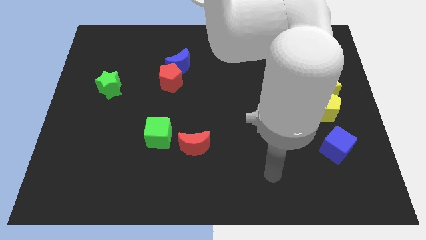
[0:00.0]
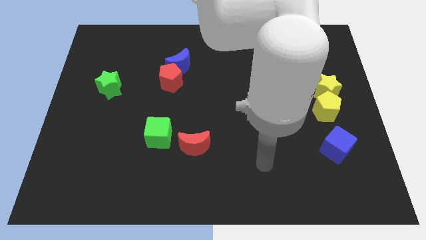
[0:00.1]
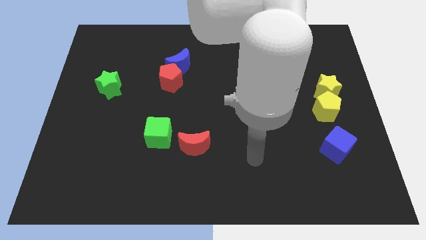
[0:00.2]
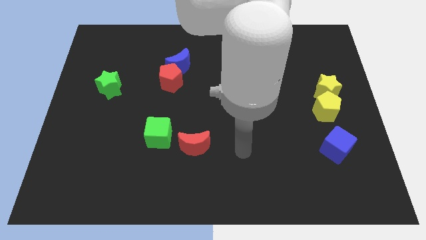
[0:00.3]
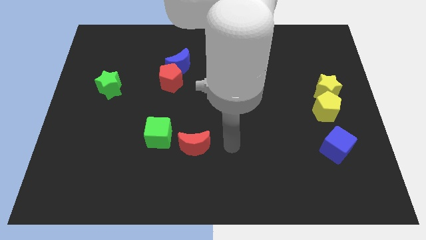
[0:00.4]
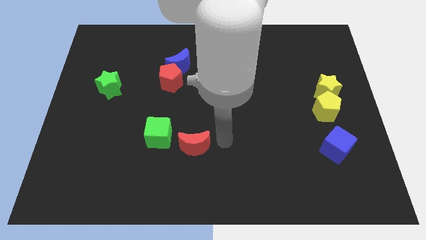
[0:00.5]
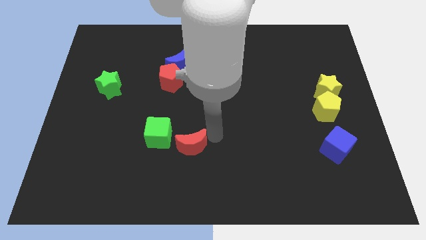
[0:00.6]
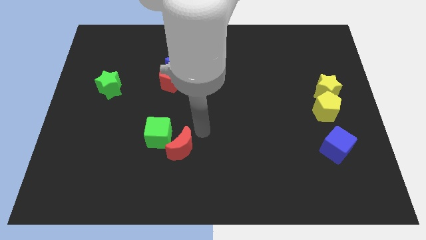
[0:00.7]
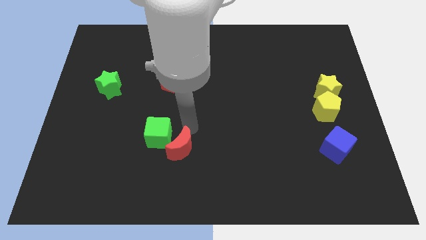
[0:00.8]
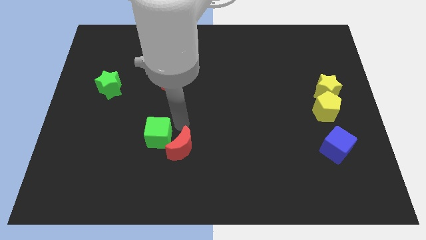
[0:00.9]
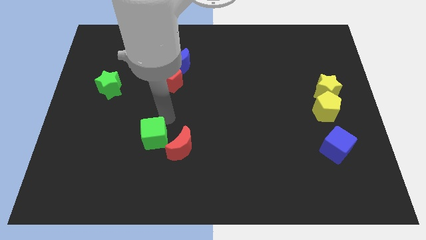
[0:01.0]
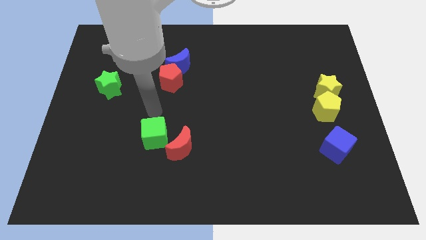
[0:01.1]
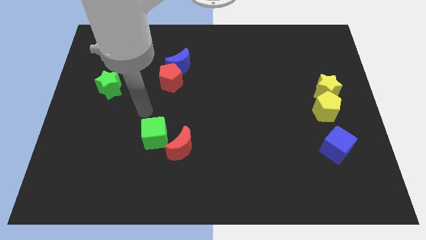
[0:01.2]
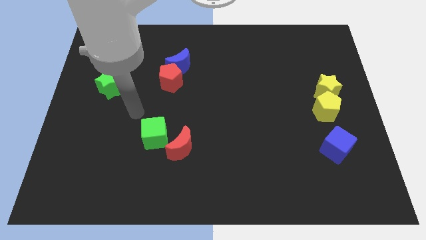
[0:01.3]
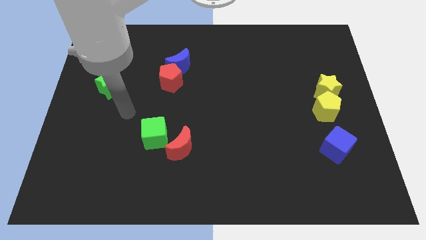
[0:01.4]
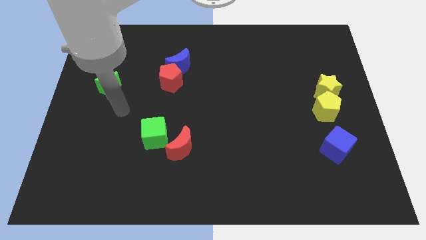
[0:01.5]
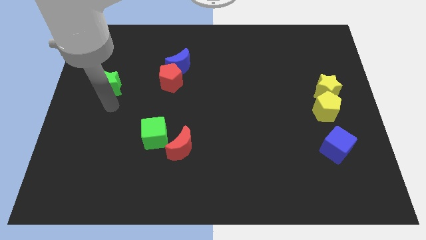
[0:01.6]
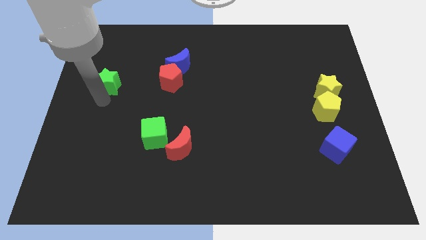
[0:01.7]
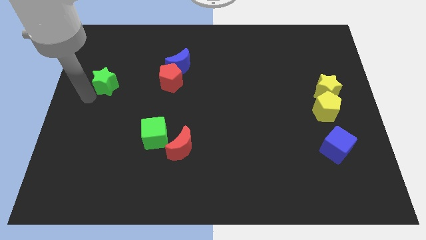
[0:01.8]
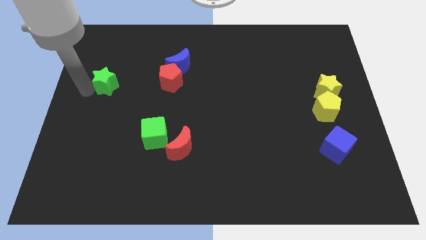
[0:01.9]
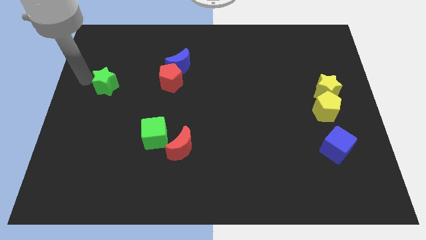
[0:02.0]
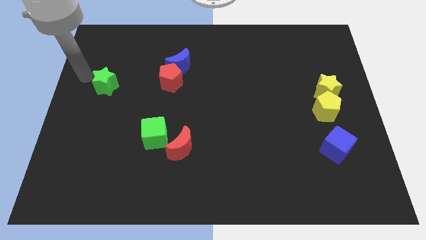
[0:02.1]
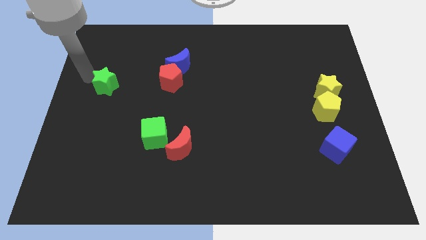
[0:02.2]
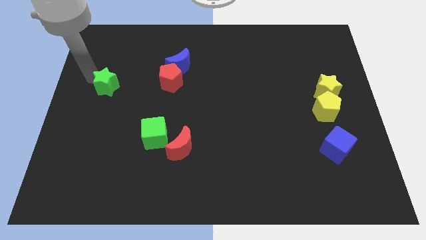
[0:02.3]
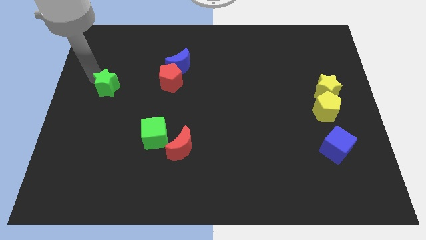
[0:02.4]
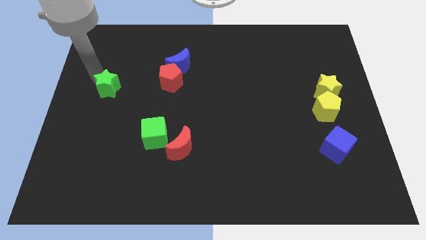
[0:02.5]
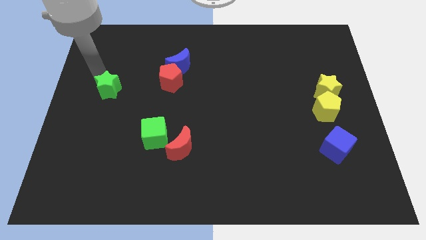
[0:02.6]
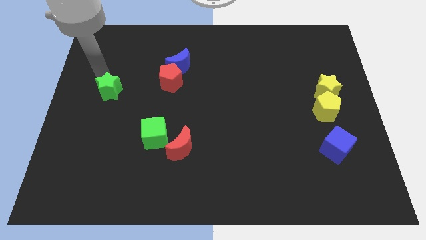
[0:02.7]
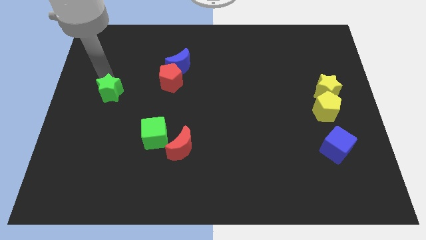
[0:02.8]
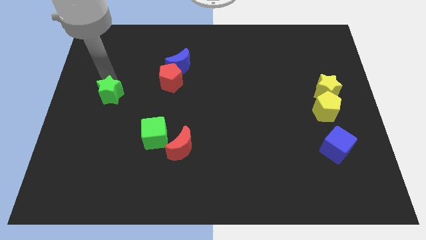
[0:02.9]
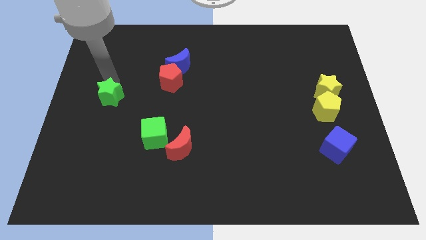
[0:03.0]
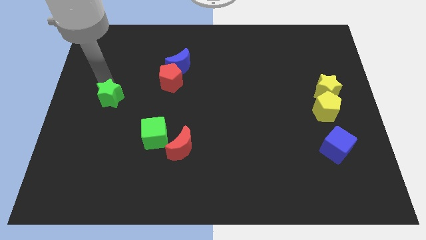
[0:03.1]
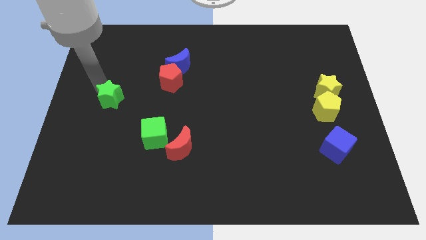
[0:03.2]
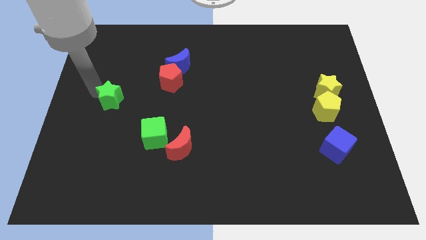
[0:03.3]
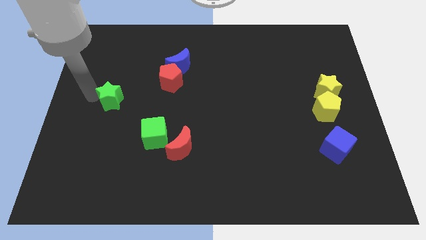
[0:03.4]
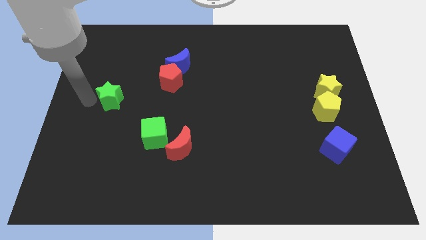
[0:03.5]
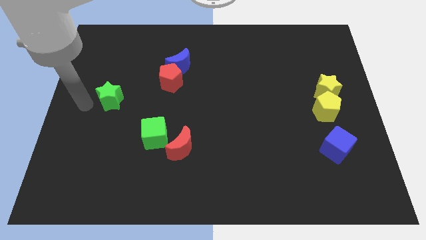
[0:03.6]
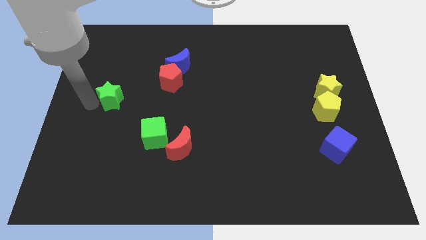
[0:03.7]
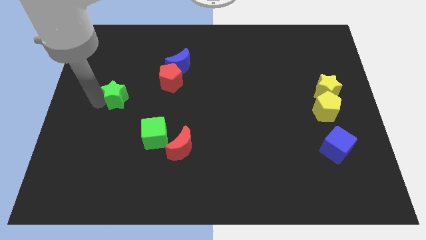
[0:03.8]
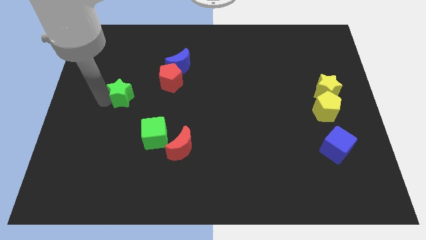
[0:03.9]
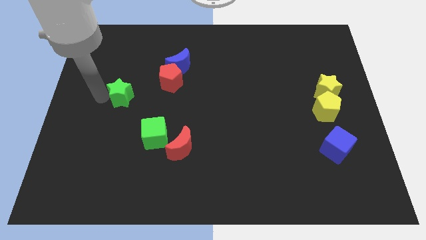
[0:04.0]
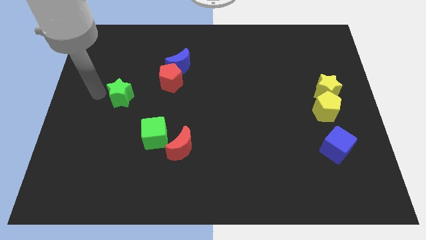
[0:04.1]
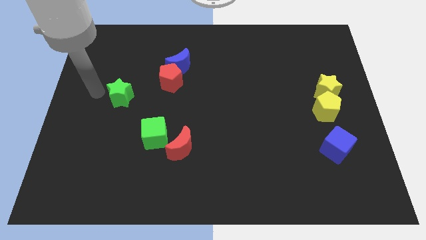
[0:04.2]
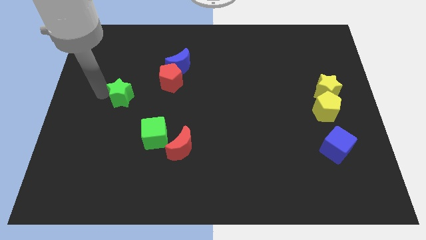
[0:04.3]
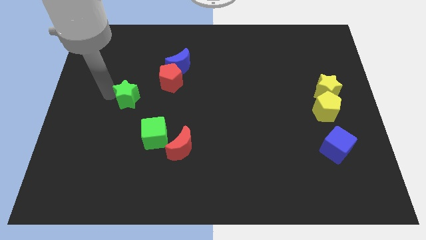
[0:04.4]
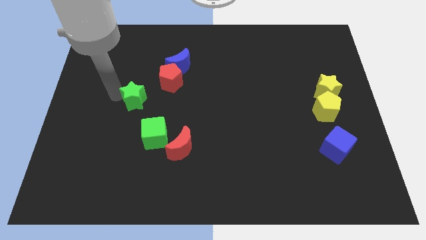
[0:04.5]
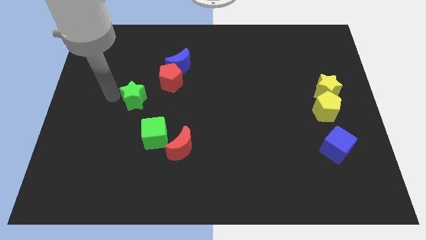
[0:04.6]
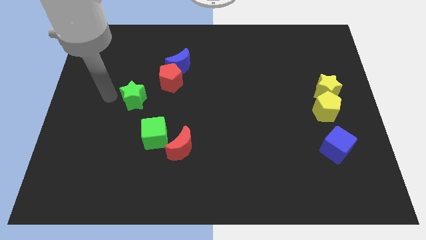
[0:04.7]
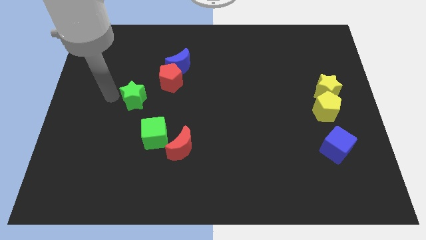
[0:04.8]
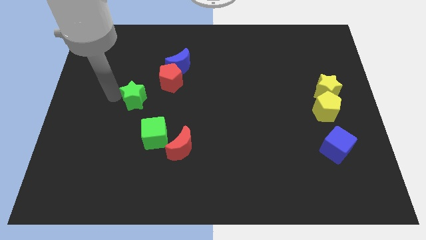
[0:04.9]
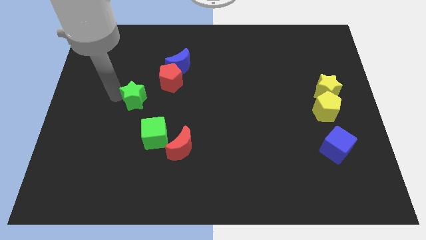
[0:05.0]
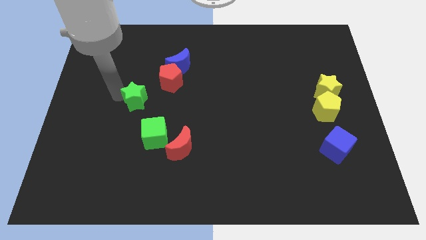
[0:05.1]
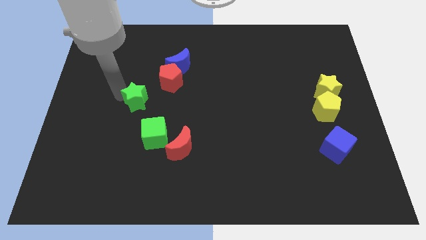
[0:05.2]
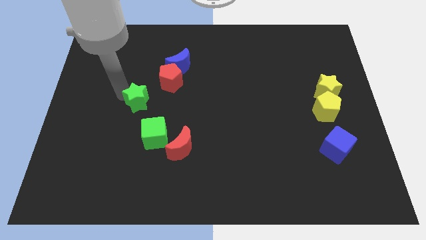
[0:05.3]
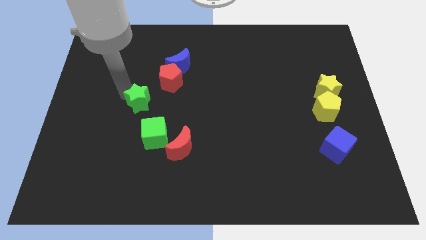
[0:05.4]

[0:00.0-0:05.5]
push the green star a little right

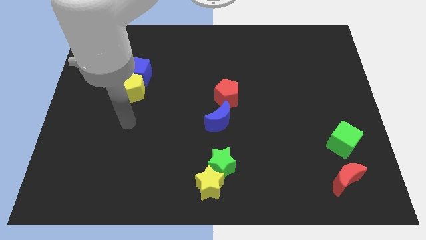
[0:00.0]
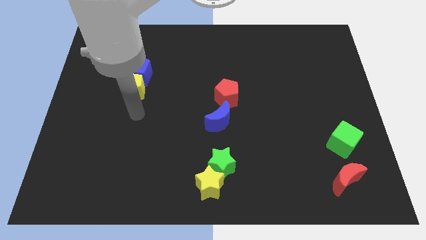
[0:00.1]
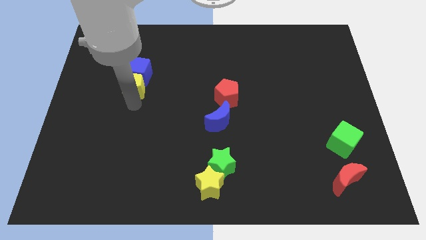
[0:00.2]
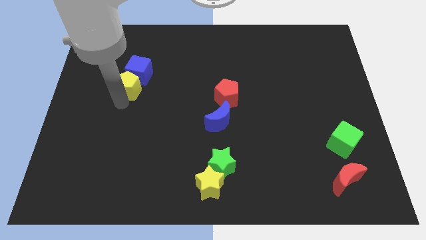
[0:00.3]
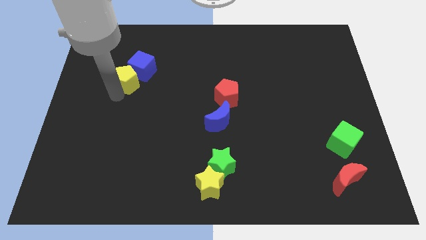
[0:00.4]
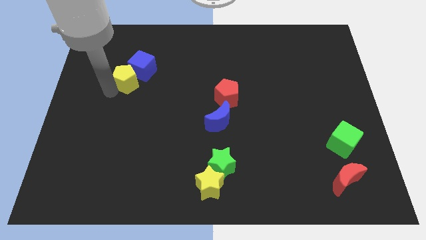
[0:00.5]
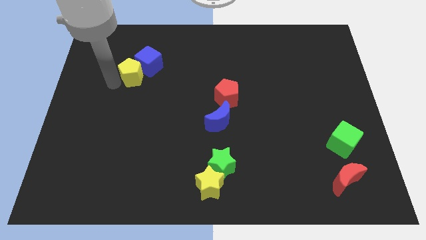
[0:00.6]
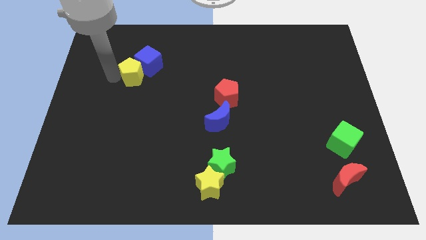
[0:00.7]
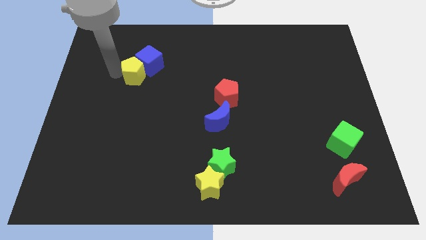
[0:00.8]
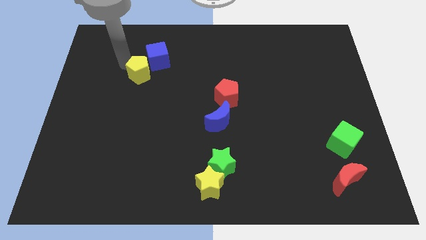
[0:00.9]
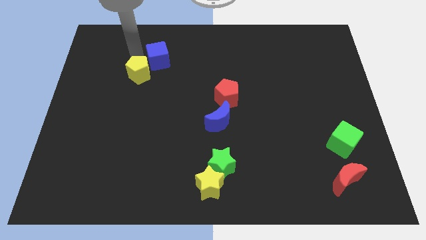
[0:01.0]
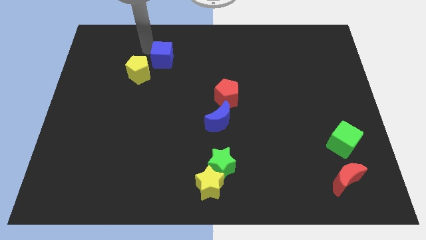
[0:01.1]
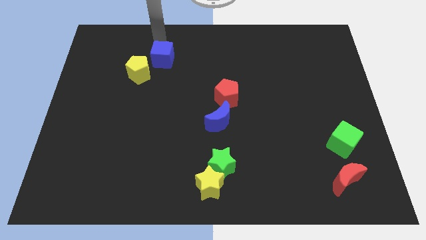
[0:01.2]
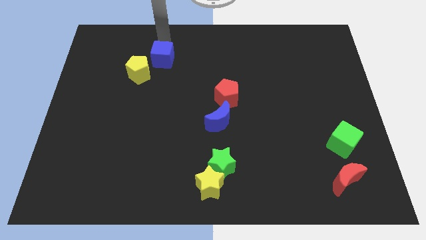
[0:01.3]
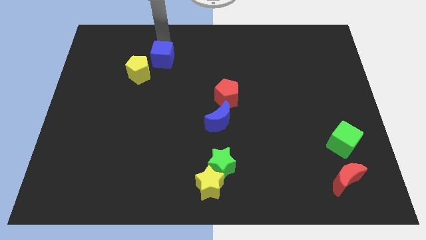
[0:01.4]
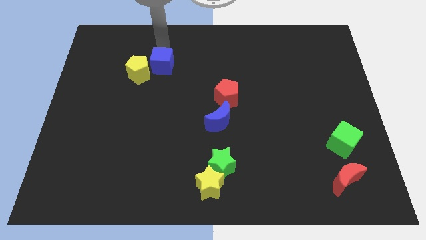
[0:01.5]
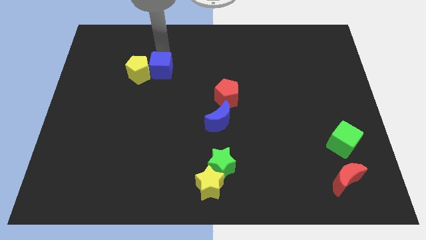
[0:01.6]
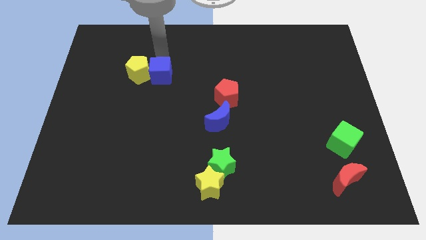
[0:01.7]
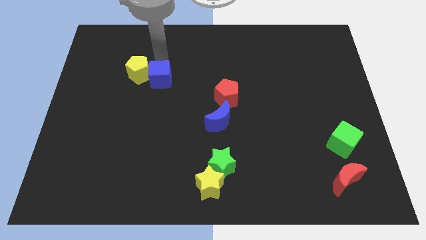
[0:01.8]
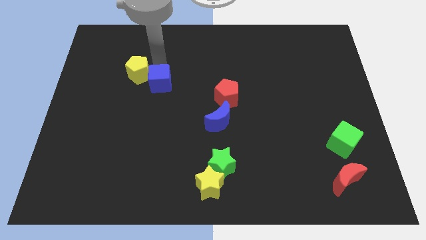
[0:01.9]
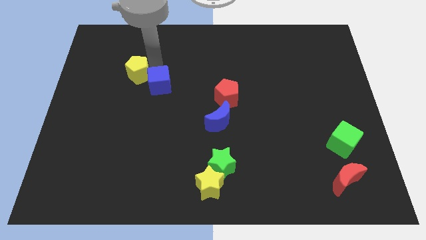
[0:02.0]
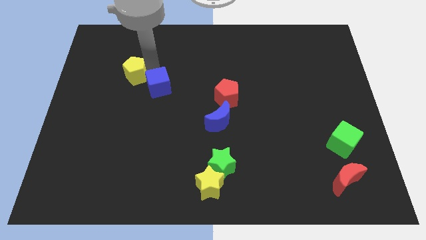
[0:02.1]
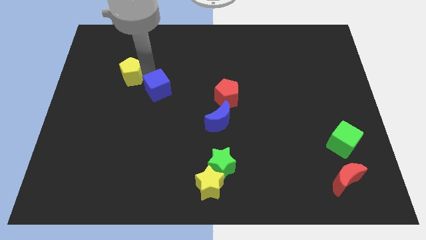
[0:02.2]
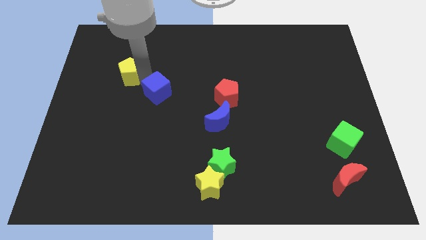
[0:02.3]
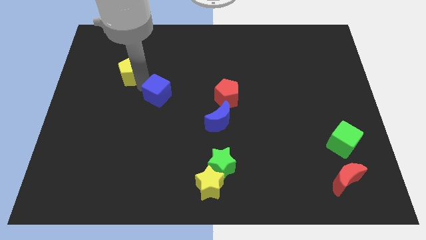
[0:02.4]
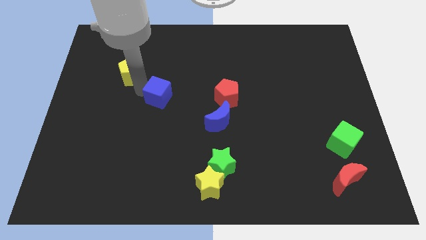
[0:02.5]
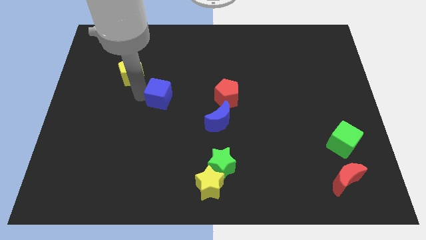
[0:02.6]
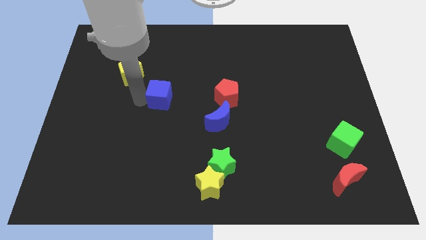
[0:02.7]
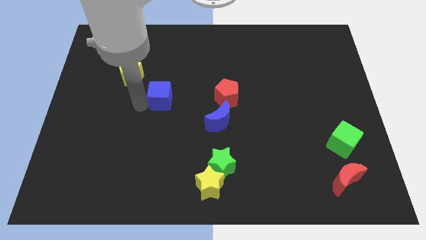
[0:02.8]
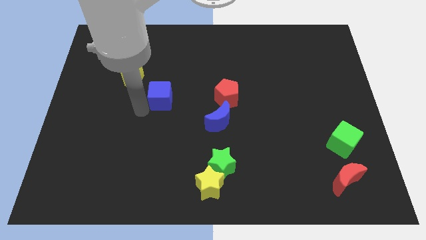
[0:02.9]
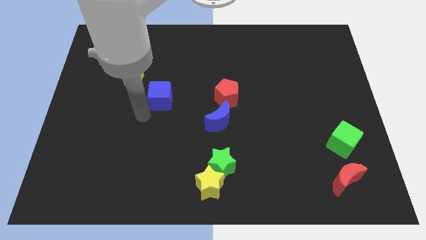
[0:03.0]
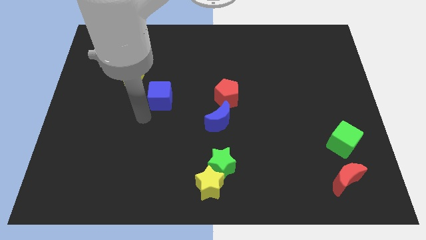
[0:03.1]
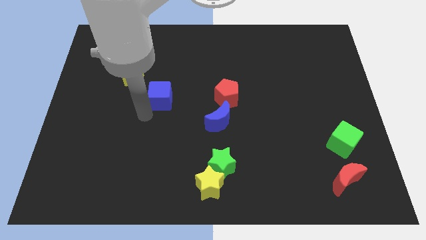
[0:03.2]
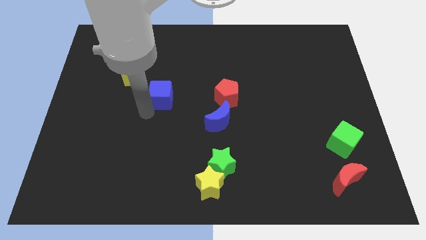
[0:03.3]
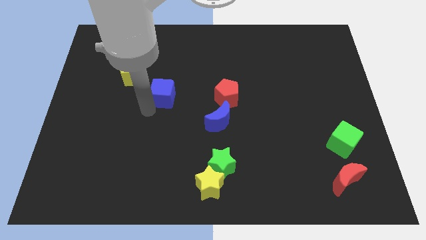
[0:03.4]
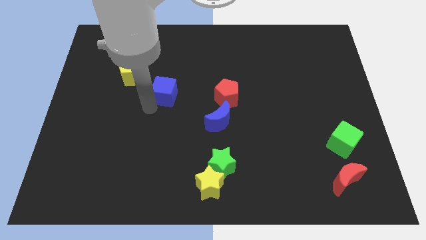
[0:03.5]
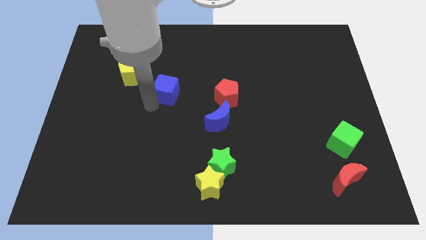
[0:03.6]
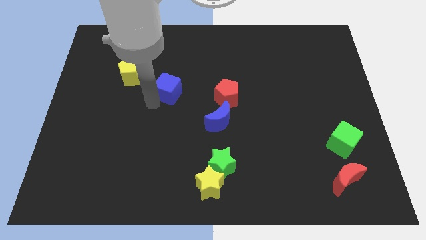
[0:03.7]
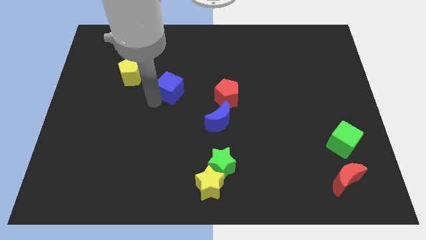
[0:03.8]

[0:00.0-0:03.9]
slightly move the blue cube to the right
